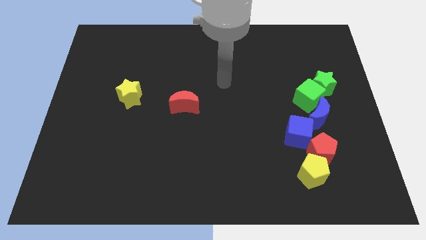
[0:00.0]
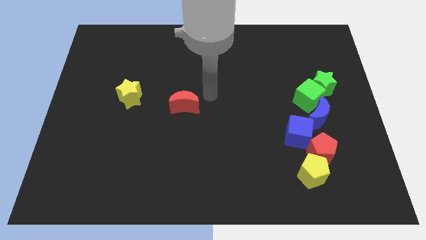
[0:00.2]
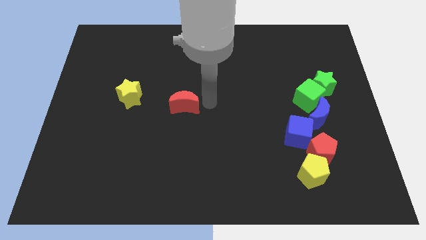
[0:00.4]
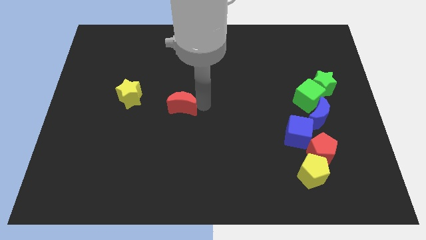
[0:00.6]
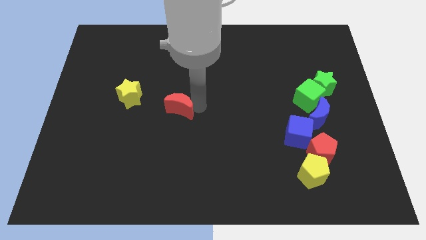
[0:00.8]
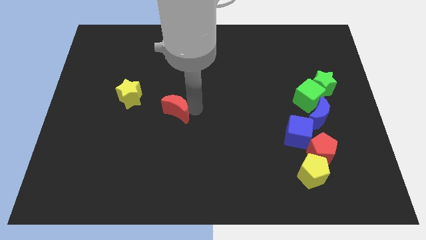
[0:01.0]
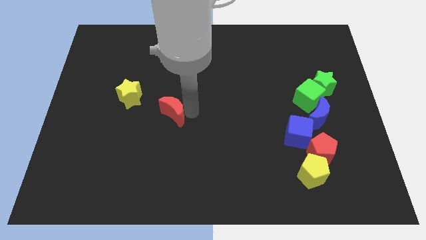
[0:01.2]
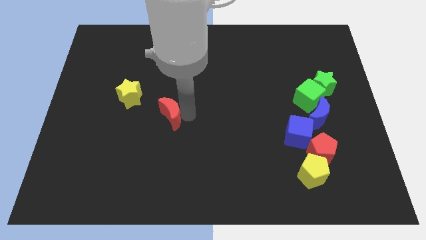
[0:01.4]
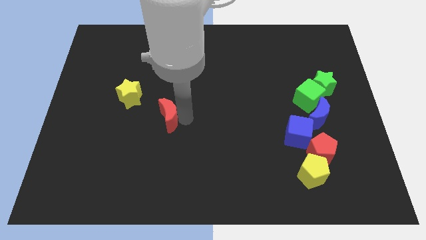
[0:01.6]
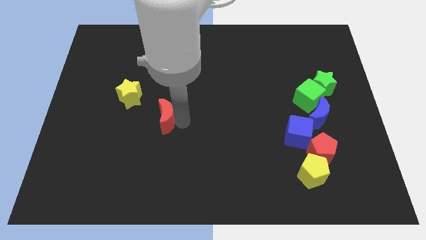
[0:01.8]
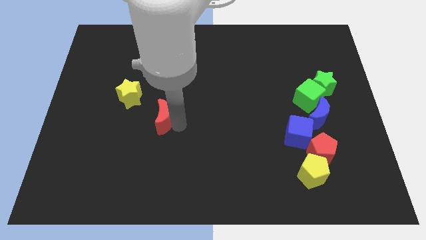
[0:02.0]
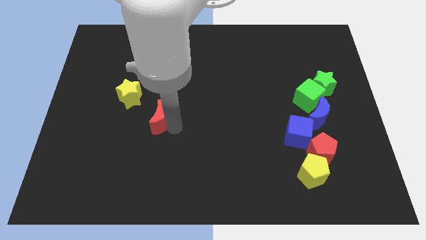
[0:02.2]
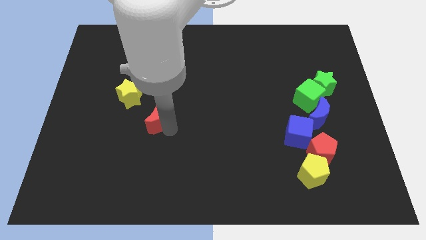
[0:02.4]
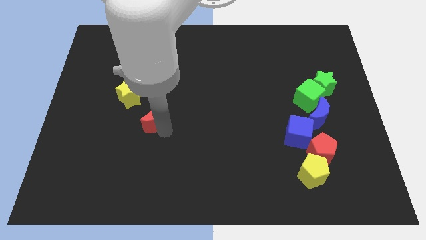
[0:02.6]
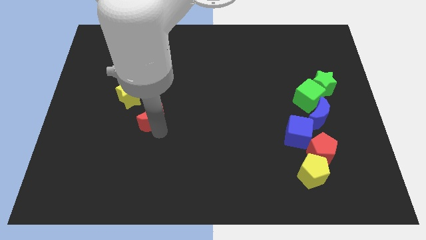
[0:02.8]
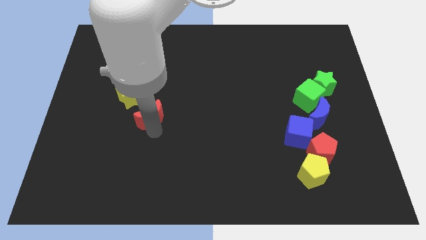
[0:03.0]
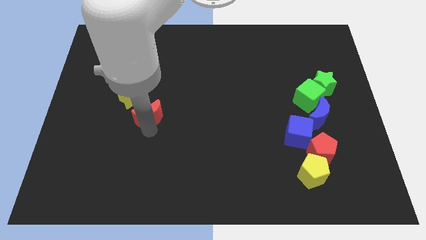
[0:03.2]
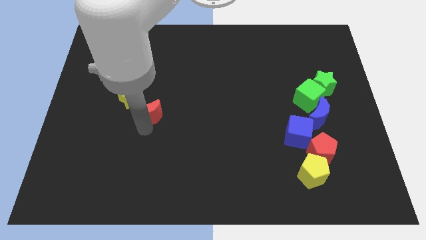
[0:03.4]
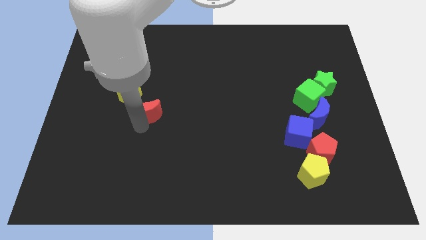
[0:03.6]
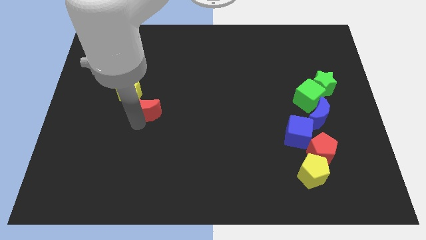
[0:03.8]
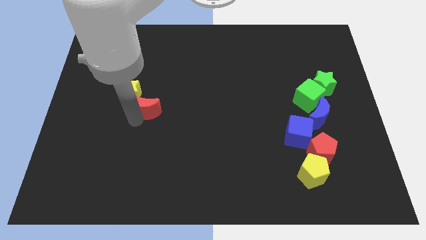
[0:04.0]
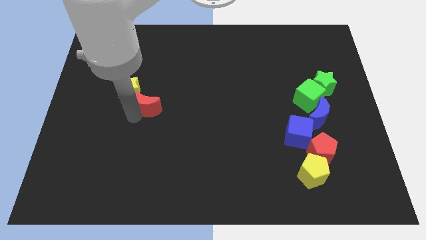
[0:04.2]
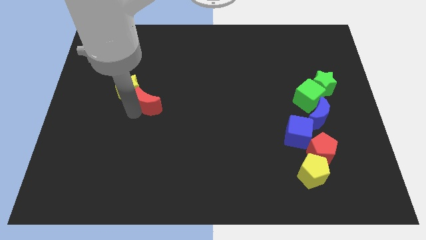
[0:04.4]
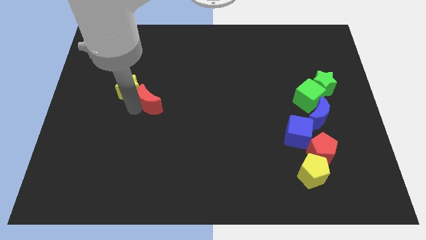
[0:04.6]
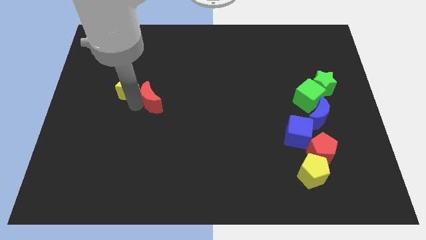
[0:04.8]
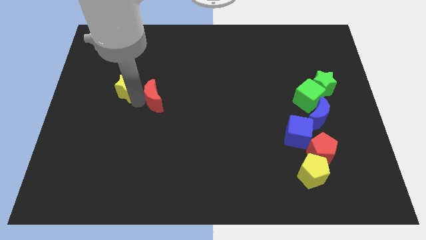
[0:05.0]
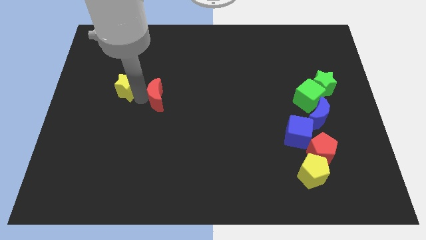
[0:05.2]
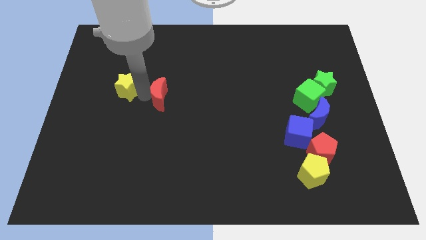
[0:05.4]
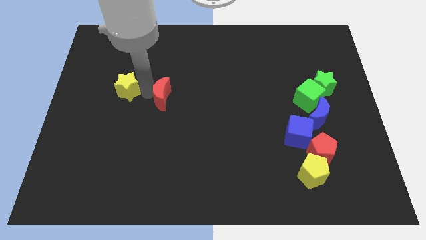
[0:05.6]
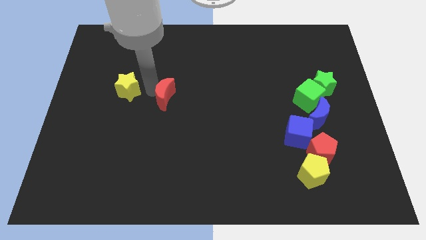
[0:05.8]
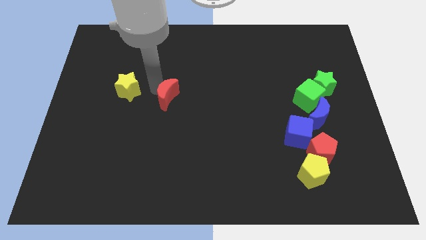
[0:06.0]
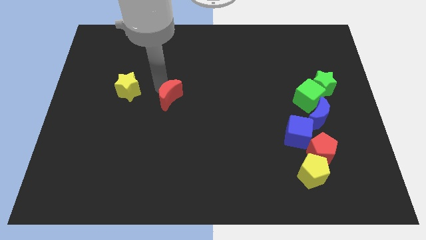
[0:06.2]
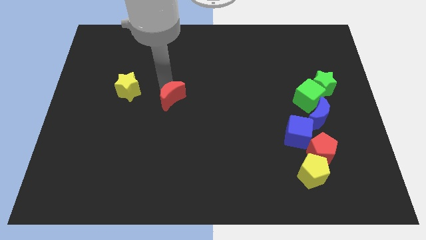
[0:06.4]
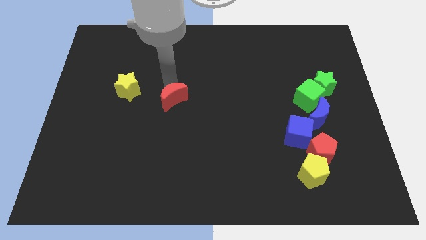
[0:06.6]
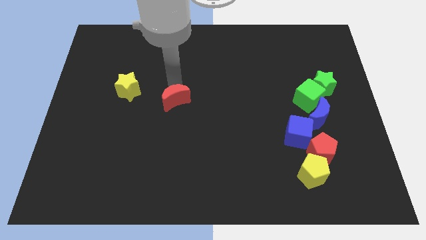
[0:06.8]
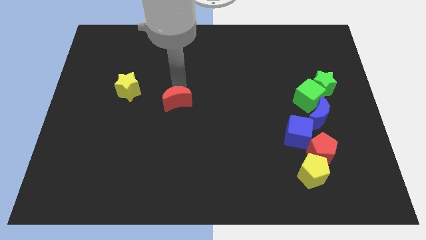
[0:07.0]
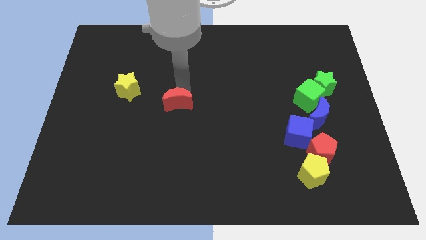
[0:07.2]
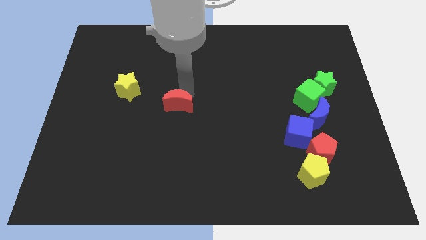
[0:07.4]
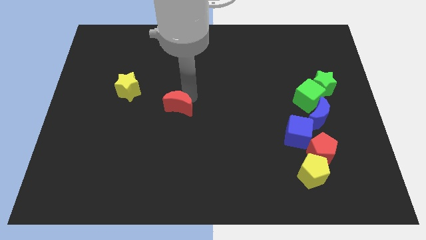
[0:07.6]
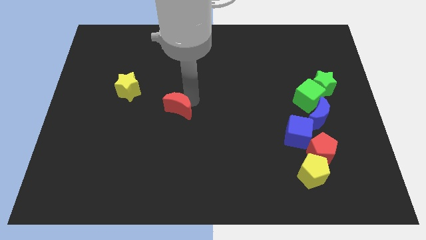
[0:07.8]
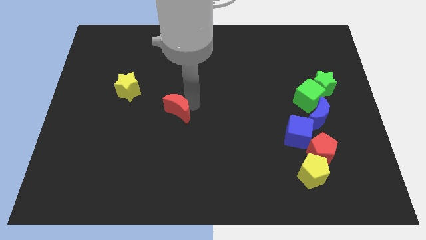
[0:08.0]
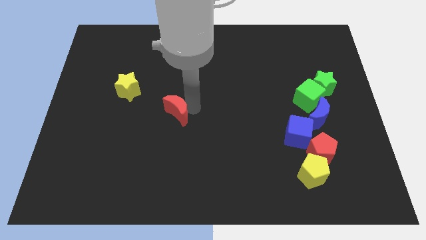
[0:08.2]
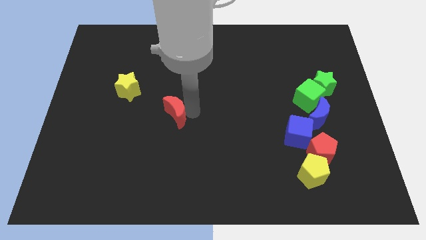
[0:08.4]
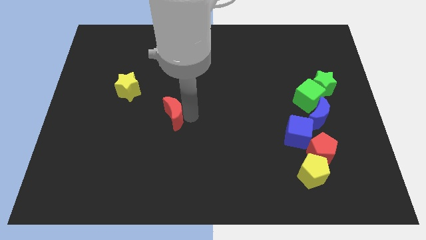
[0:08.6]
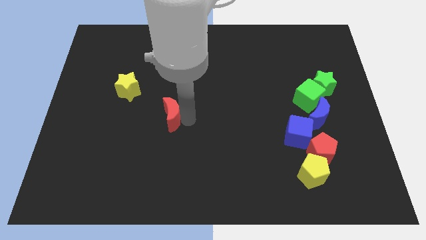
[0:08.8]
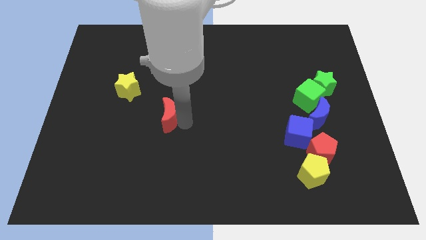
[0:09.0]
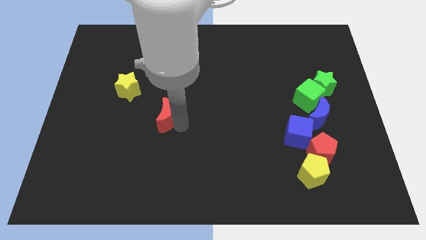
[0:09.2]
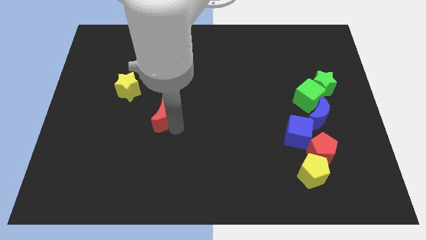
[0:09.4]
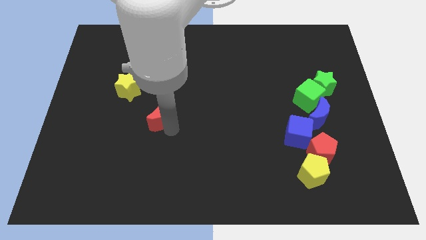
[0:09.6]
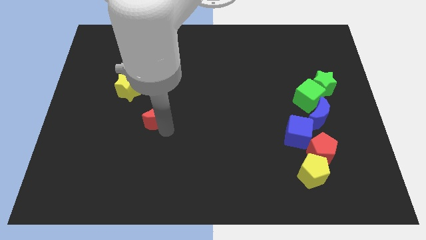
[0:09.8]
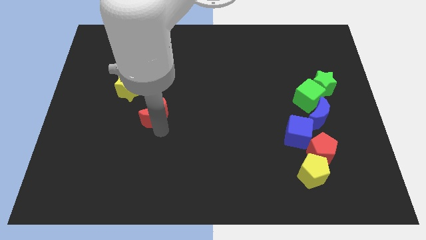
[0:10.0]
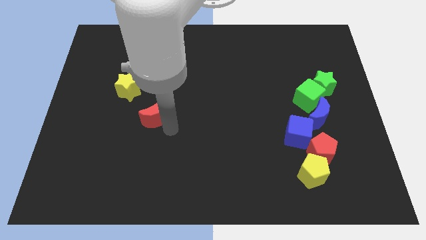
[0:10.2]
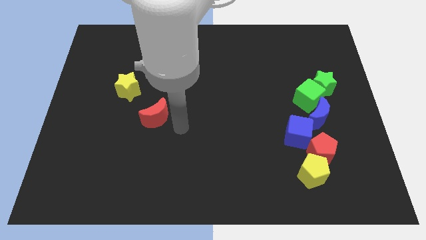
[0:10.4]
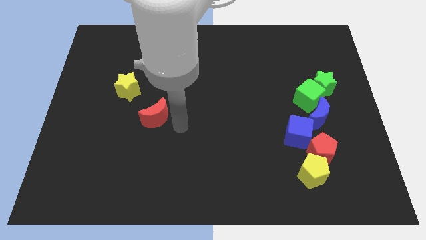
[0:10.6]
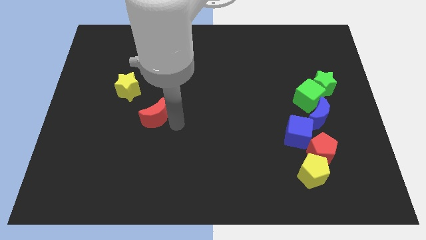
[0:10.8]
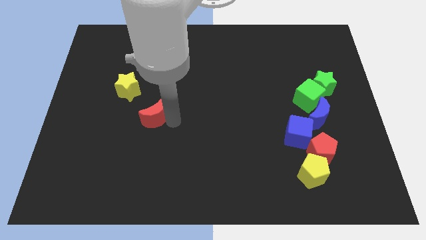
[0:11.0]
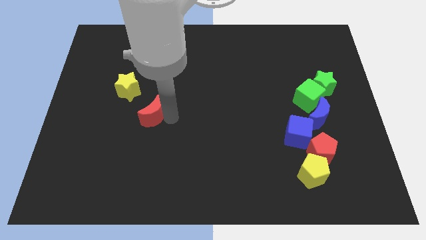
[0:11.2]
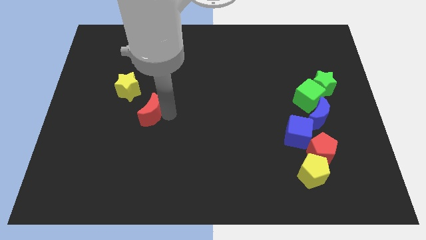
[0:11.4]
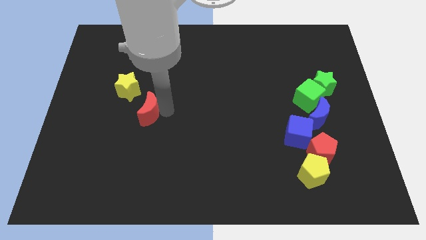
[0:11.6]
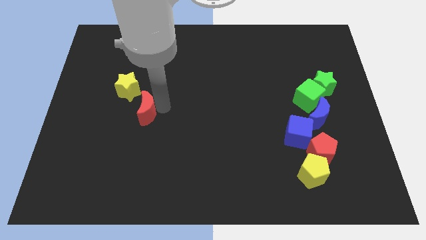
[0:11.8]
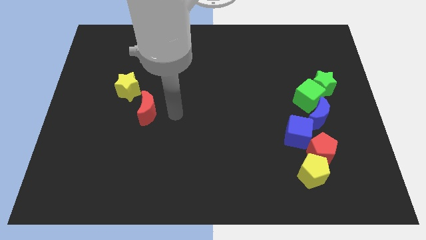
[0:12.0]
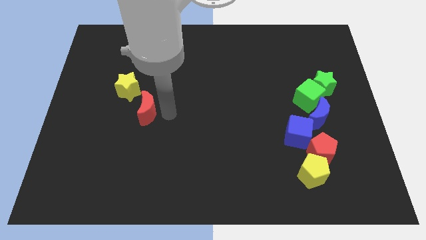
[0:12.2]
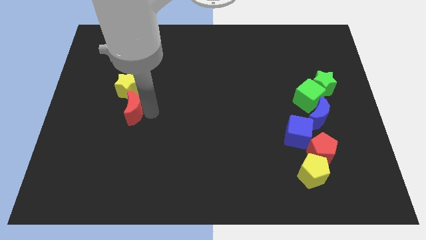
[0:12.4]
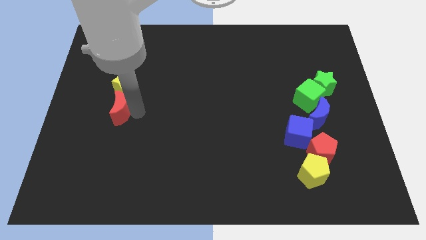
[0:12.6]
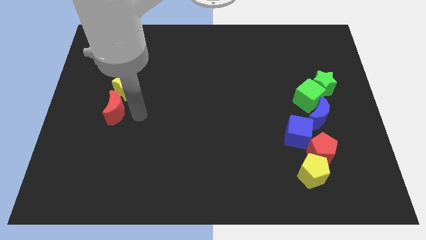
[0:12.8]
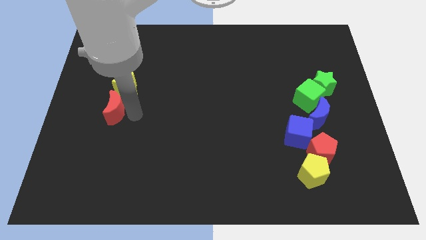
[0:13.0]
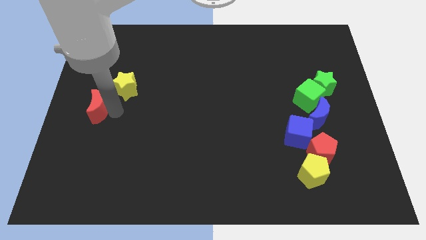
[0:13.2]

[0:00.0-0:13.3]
move the red moon to the left side of the board
